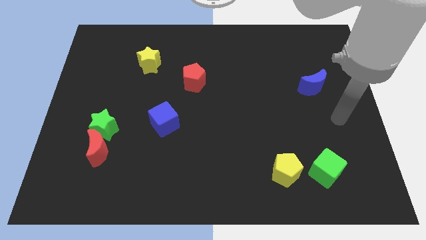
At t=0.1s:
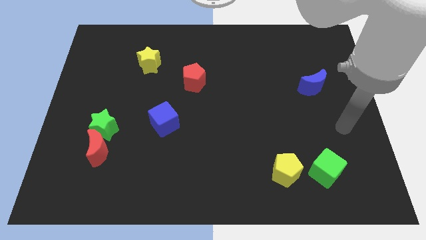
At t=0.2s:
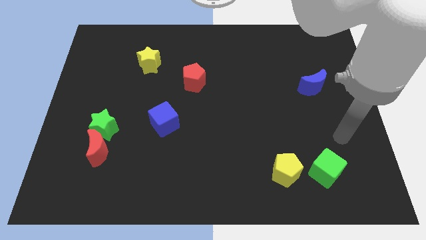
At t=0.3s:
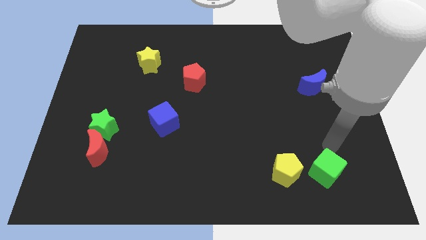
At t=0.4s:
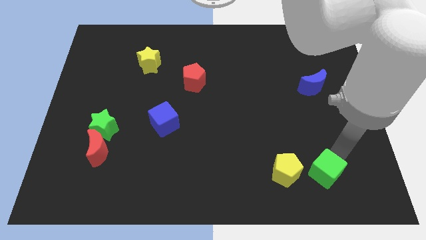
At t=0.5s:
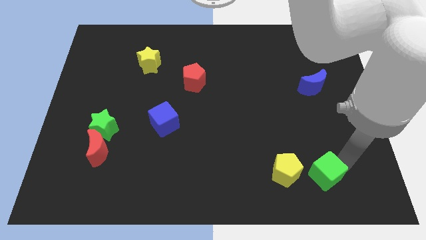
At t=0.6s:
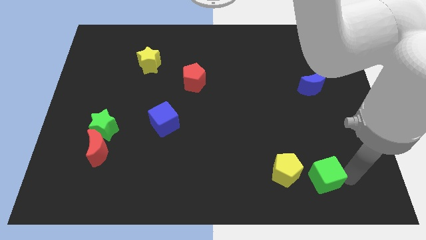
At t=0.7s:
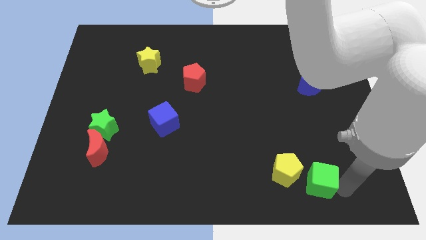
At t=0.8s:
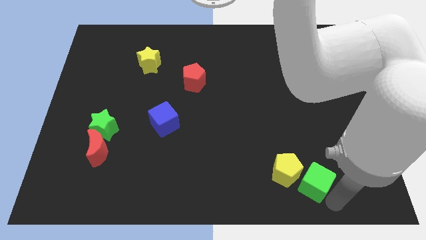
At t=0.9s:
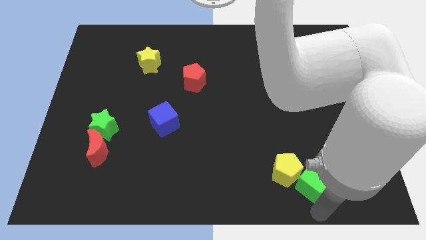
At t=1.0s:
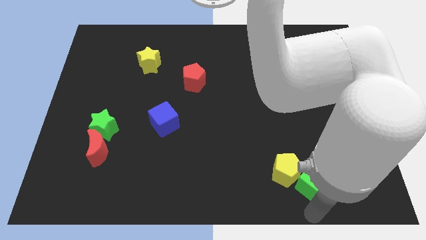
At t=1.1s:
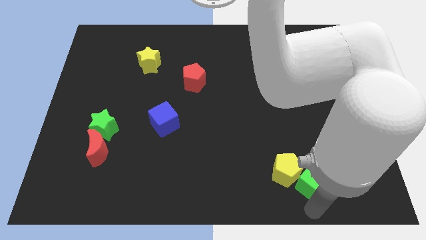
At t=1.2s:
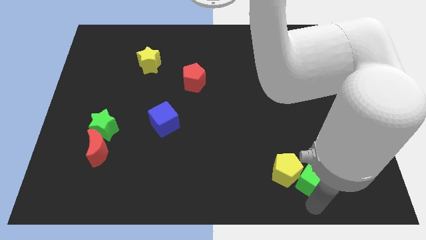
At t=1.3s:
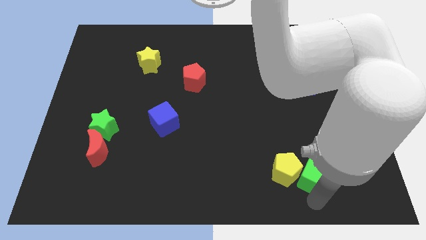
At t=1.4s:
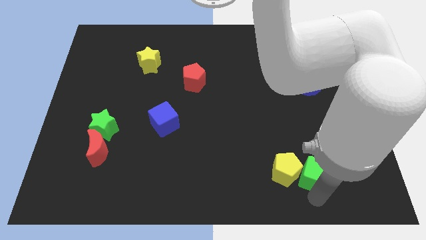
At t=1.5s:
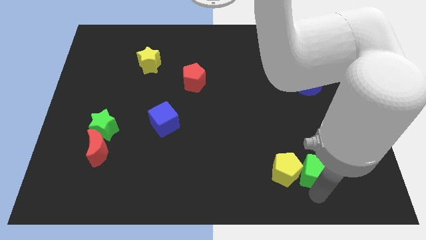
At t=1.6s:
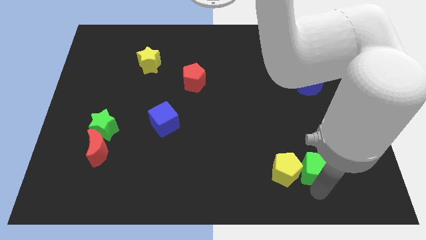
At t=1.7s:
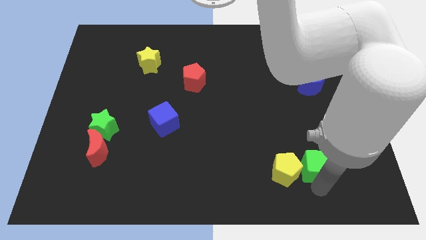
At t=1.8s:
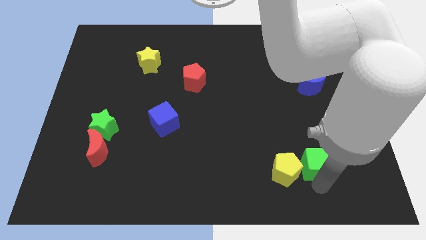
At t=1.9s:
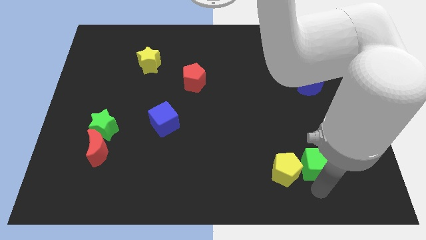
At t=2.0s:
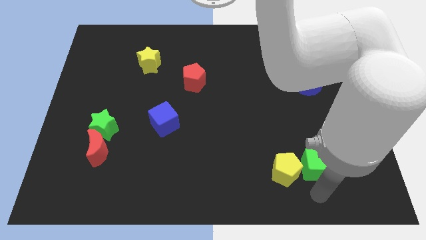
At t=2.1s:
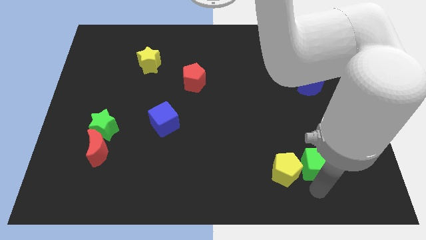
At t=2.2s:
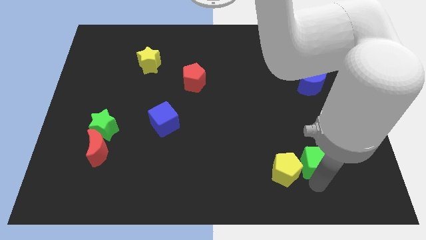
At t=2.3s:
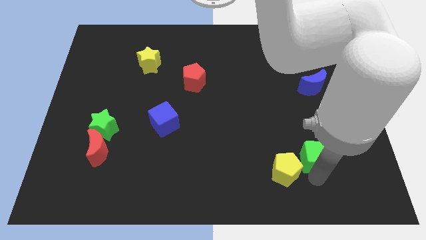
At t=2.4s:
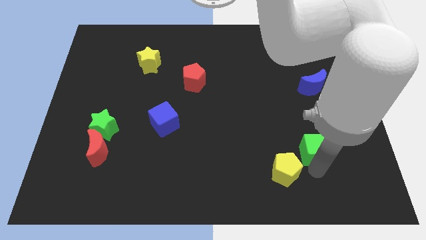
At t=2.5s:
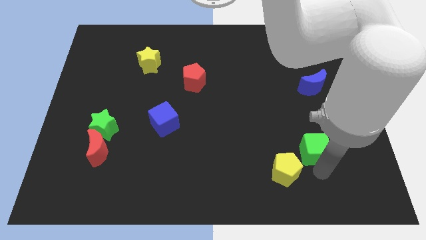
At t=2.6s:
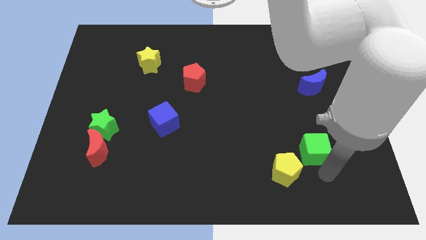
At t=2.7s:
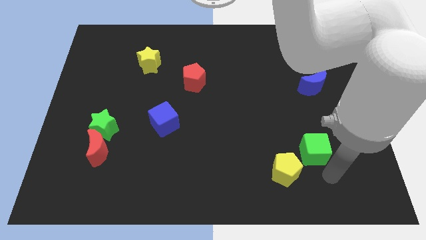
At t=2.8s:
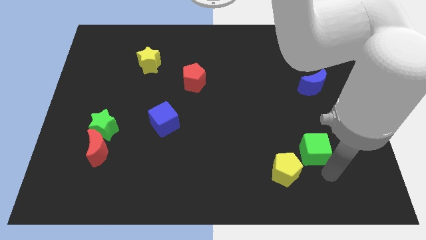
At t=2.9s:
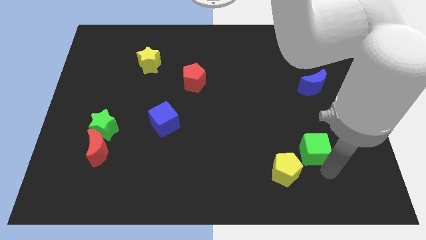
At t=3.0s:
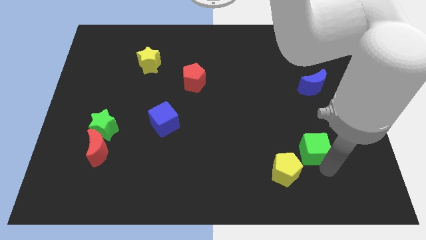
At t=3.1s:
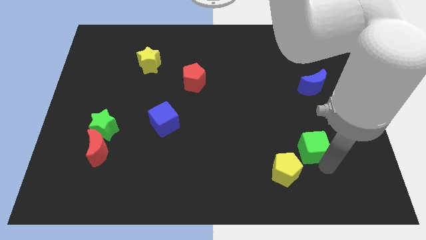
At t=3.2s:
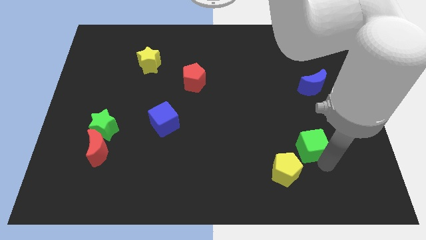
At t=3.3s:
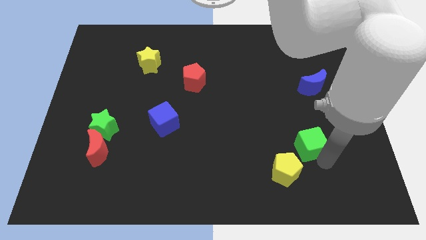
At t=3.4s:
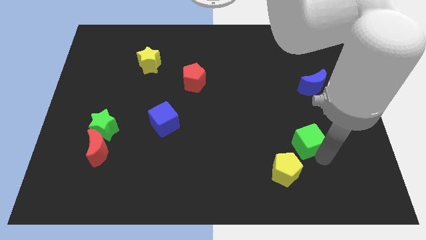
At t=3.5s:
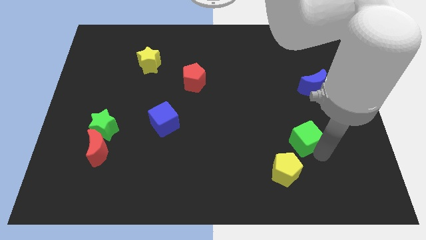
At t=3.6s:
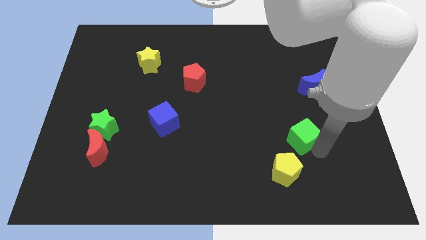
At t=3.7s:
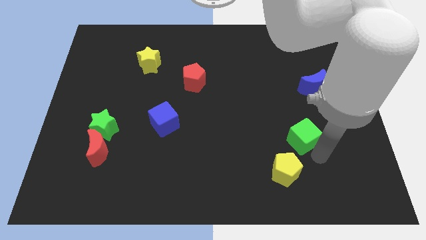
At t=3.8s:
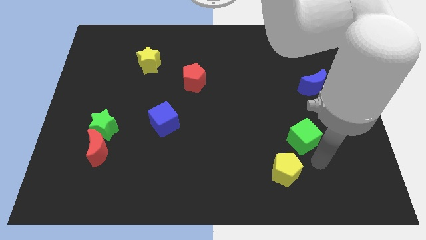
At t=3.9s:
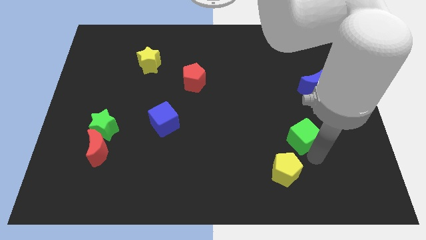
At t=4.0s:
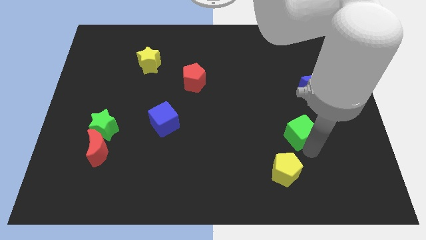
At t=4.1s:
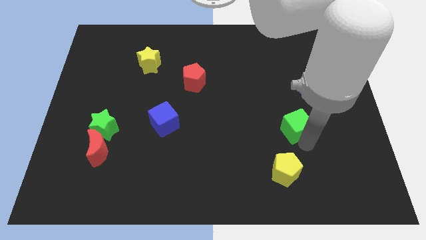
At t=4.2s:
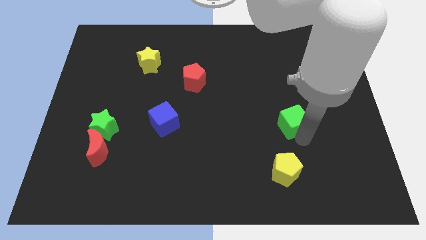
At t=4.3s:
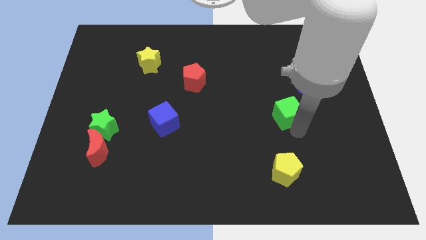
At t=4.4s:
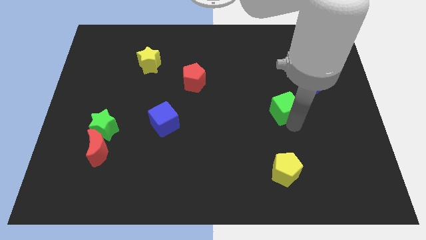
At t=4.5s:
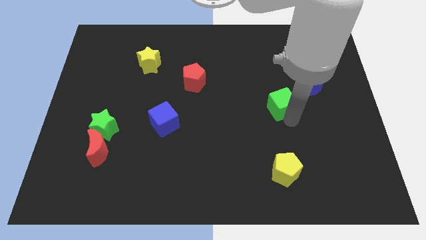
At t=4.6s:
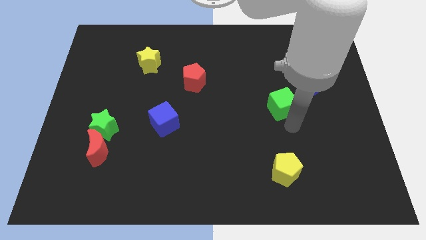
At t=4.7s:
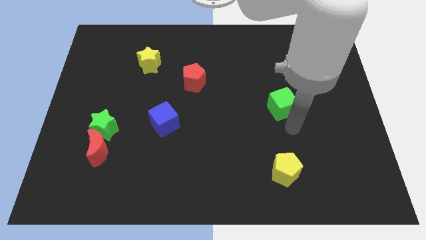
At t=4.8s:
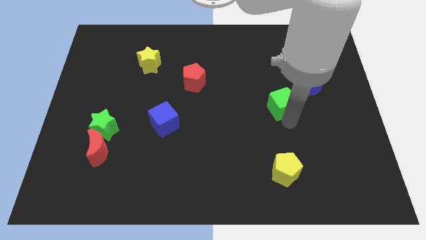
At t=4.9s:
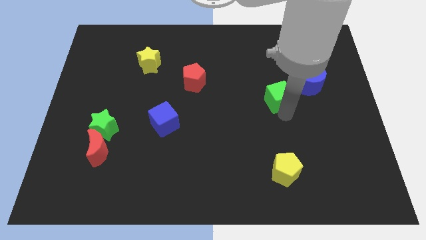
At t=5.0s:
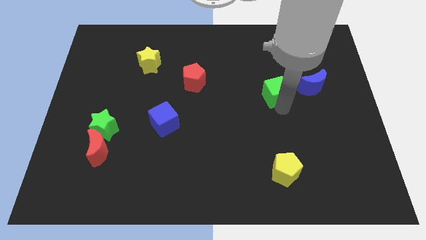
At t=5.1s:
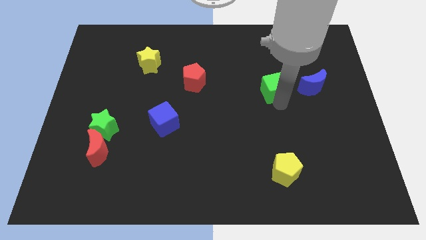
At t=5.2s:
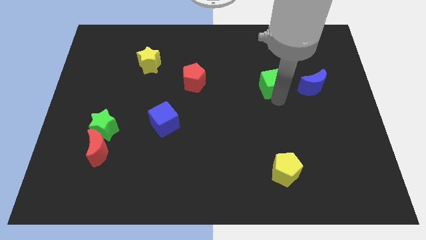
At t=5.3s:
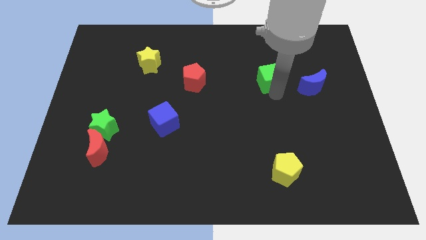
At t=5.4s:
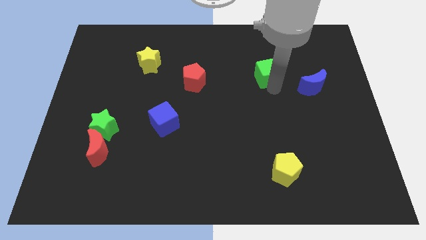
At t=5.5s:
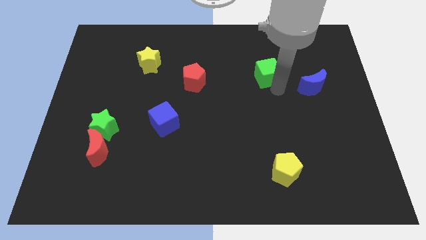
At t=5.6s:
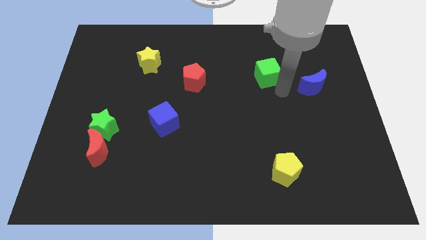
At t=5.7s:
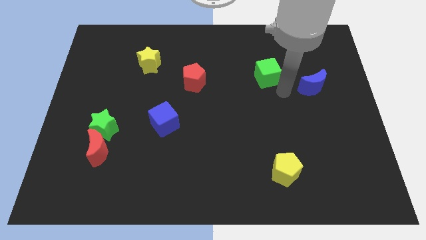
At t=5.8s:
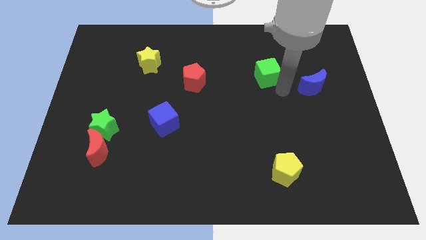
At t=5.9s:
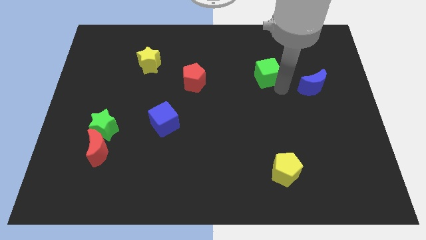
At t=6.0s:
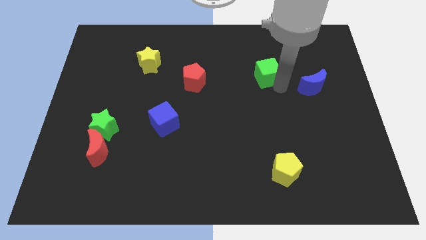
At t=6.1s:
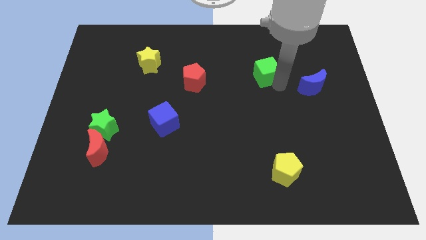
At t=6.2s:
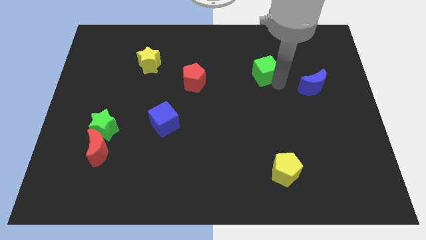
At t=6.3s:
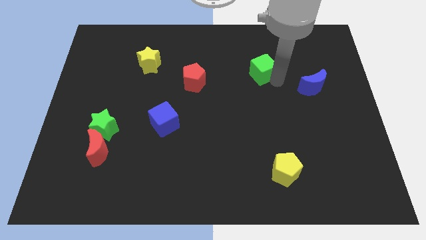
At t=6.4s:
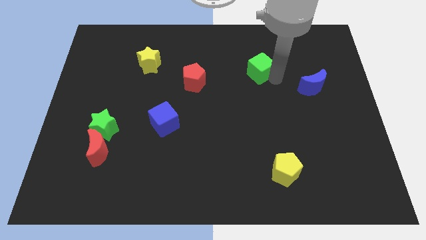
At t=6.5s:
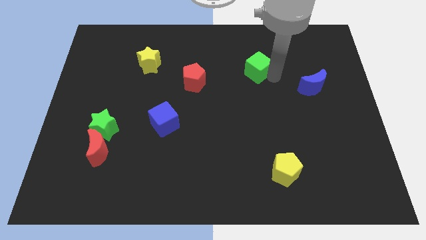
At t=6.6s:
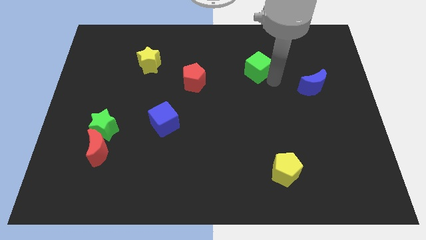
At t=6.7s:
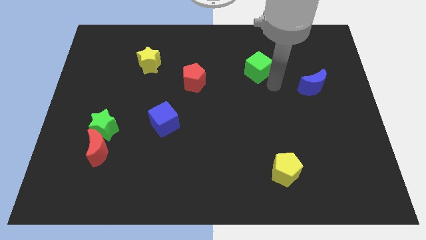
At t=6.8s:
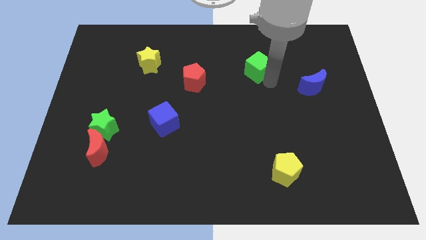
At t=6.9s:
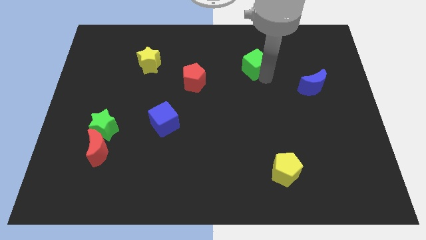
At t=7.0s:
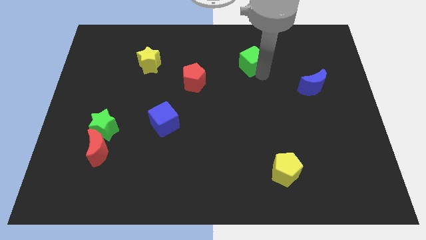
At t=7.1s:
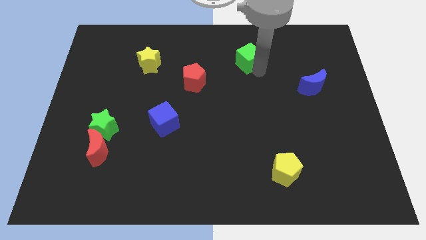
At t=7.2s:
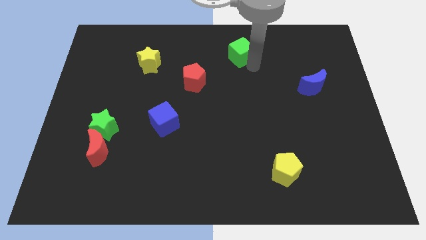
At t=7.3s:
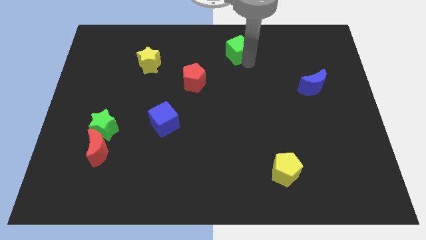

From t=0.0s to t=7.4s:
move the green cube to the top
